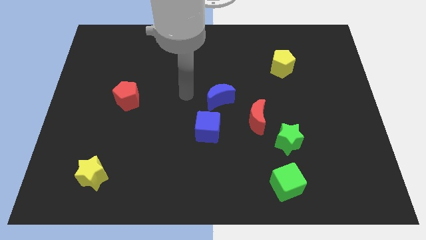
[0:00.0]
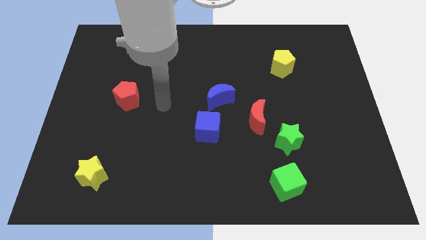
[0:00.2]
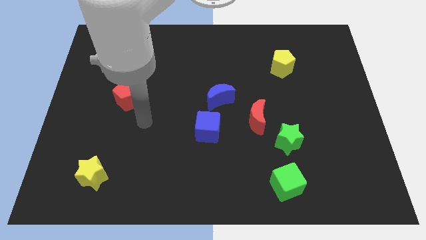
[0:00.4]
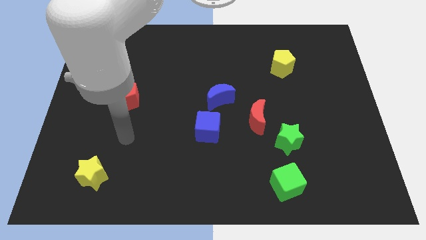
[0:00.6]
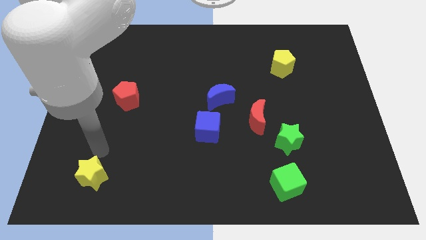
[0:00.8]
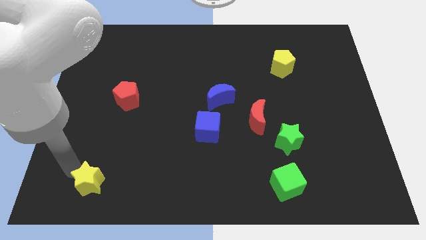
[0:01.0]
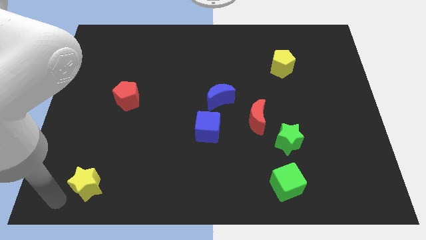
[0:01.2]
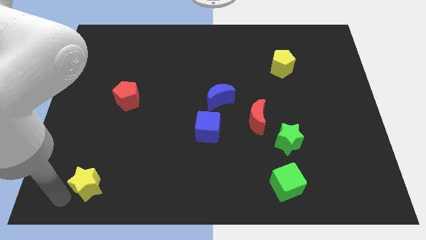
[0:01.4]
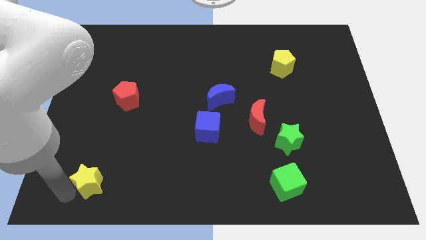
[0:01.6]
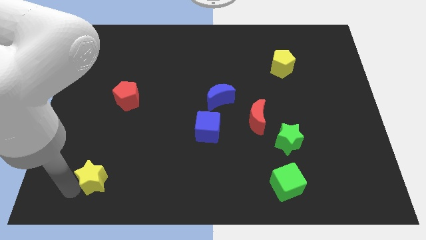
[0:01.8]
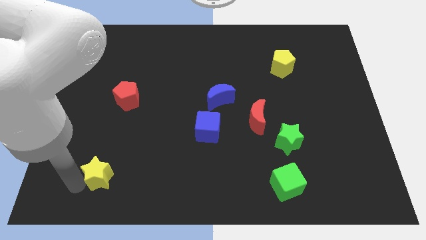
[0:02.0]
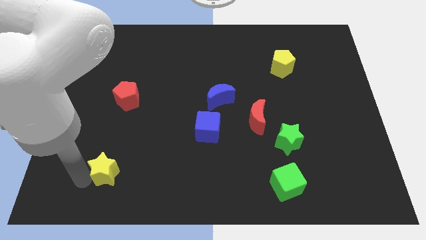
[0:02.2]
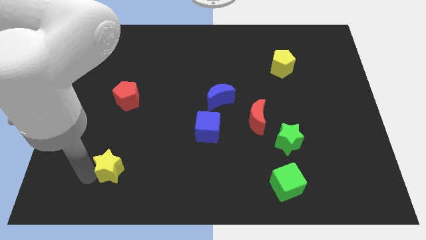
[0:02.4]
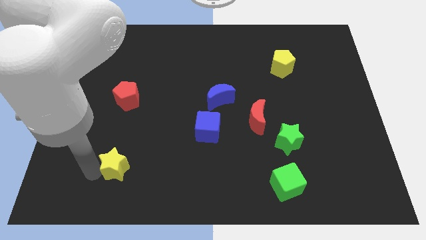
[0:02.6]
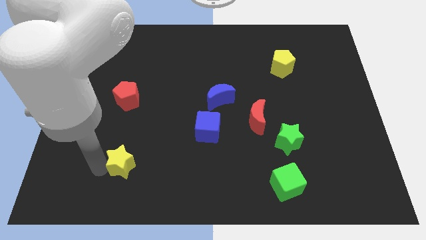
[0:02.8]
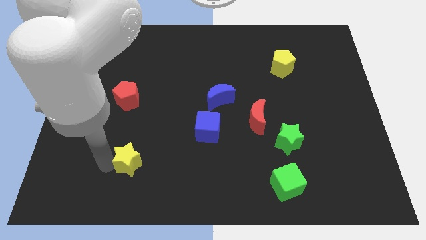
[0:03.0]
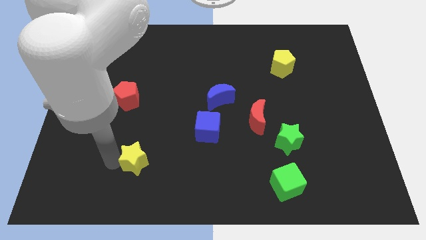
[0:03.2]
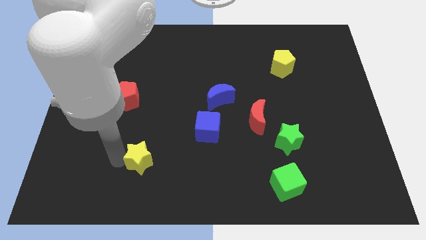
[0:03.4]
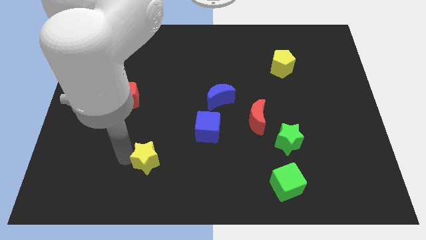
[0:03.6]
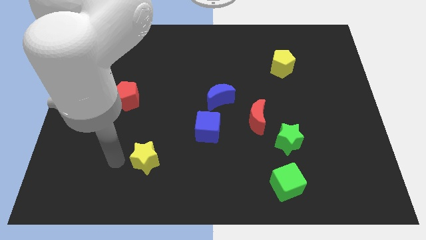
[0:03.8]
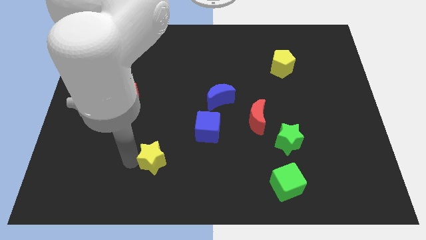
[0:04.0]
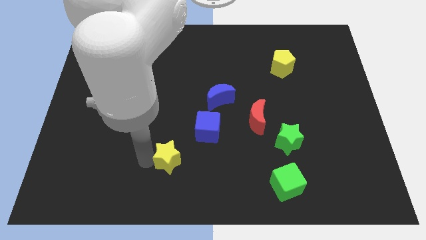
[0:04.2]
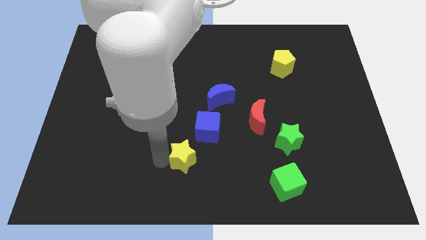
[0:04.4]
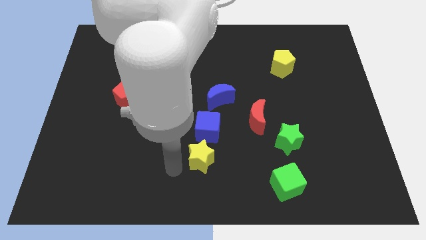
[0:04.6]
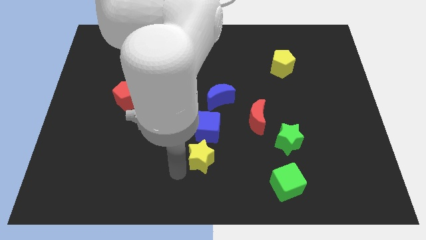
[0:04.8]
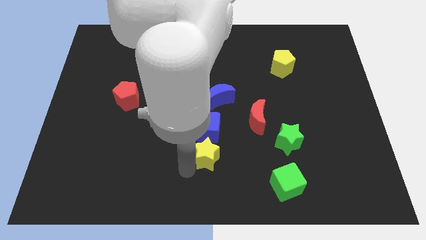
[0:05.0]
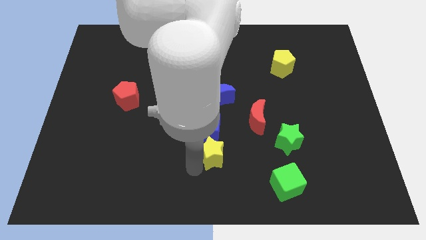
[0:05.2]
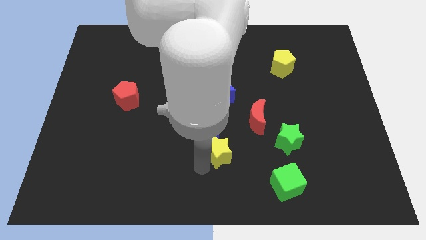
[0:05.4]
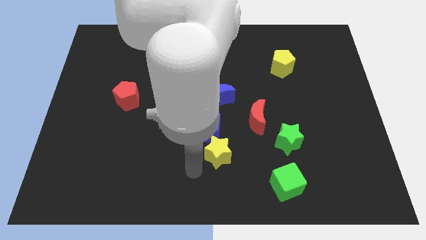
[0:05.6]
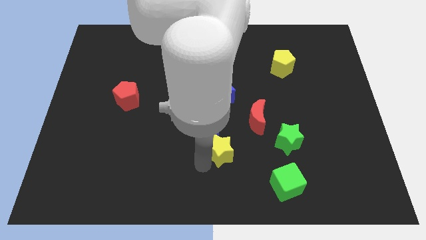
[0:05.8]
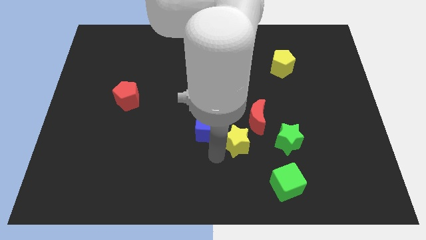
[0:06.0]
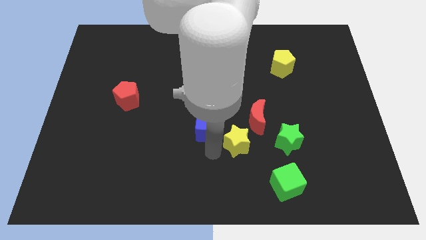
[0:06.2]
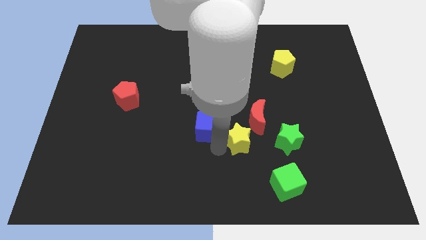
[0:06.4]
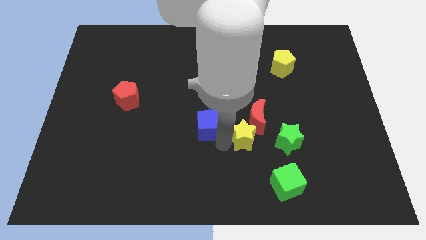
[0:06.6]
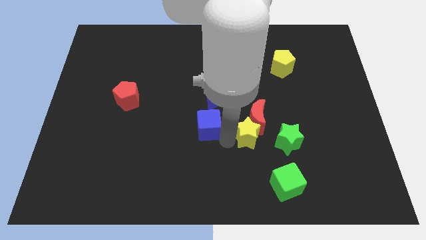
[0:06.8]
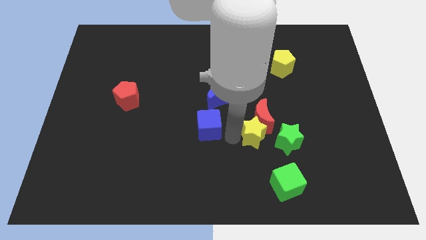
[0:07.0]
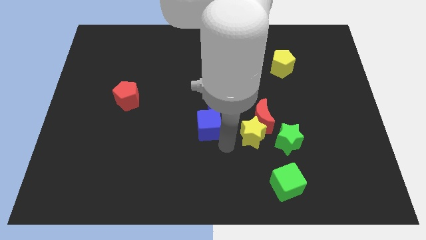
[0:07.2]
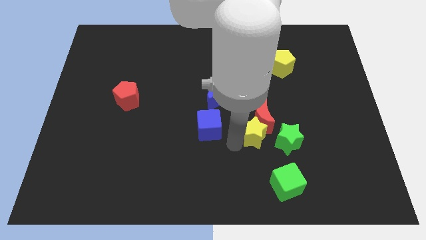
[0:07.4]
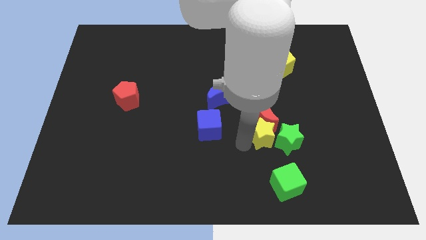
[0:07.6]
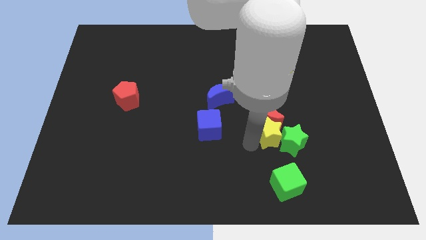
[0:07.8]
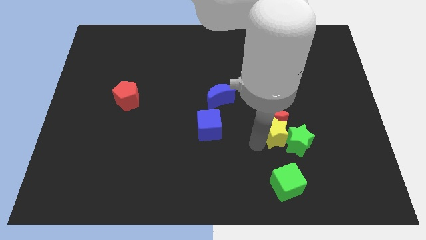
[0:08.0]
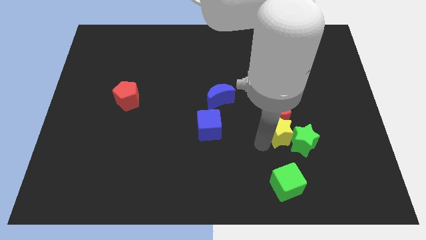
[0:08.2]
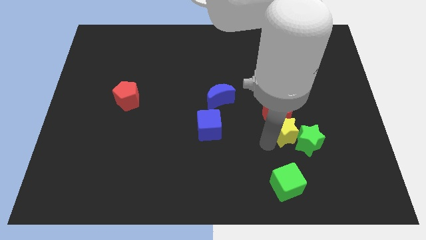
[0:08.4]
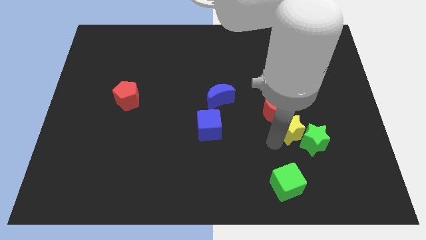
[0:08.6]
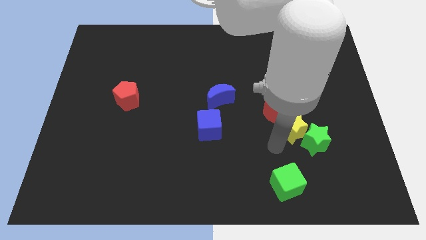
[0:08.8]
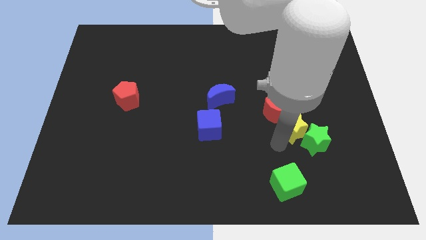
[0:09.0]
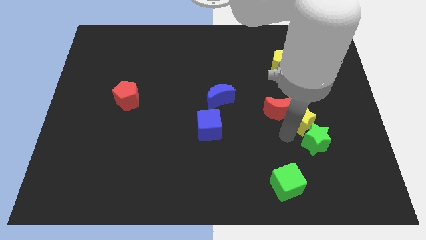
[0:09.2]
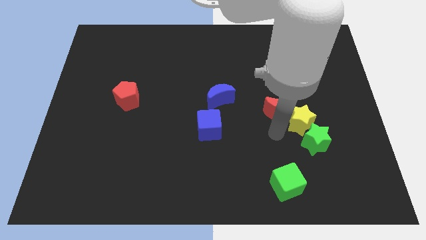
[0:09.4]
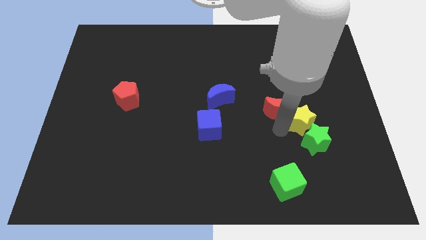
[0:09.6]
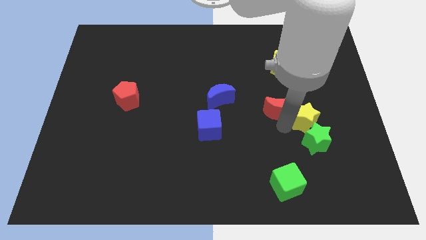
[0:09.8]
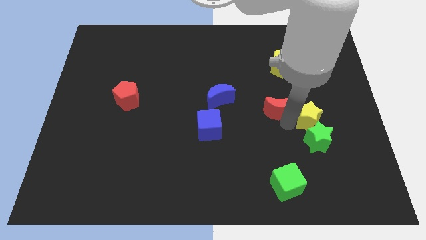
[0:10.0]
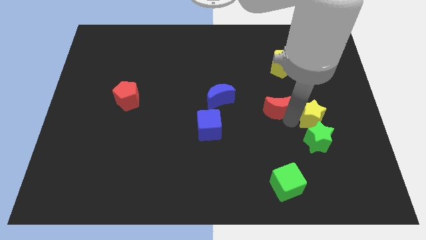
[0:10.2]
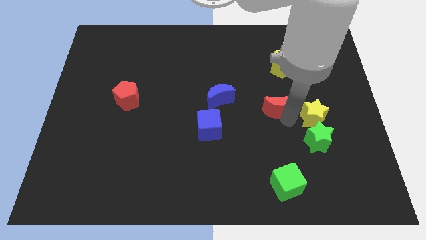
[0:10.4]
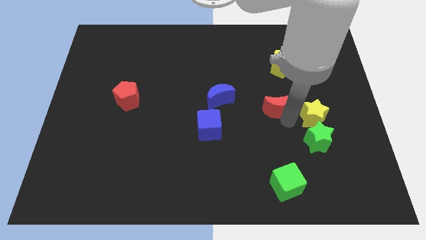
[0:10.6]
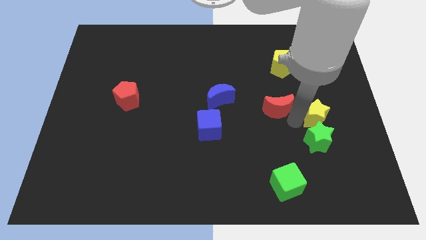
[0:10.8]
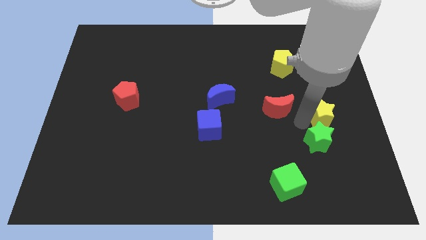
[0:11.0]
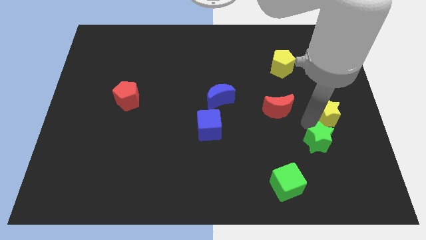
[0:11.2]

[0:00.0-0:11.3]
slide the yellow star to the right side of the board
